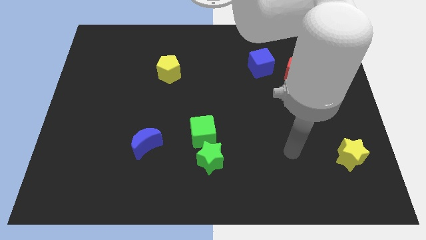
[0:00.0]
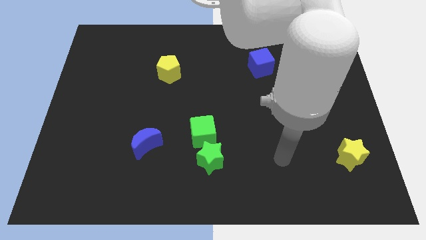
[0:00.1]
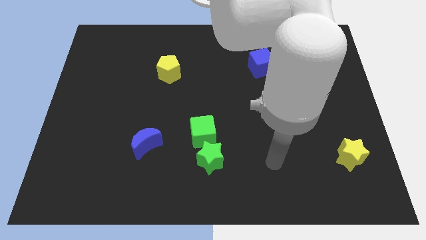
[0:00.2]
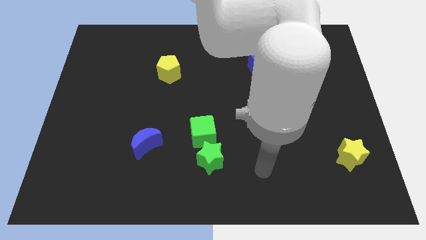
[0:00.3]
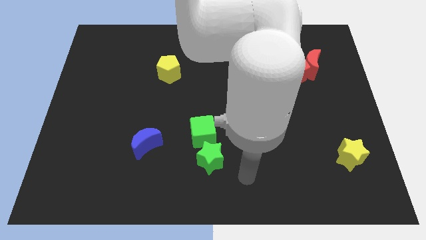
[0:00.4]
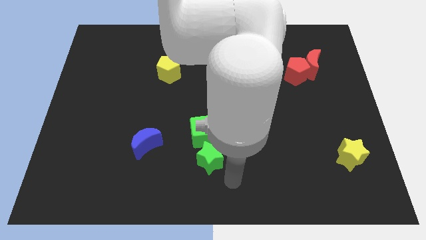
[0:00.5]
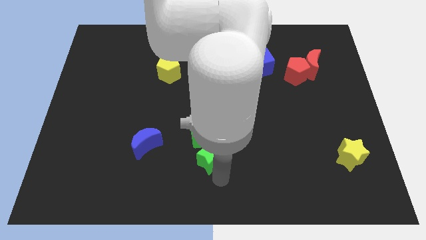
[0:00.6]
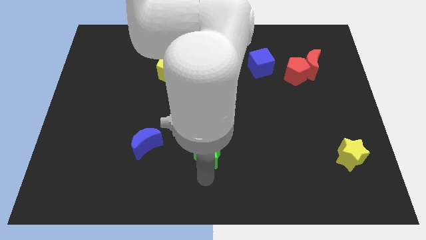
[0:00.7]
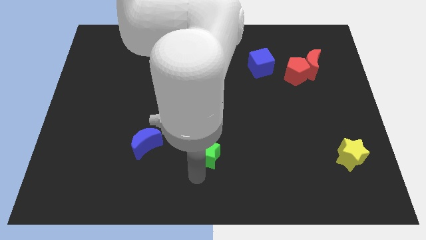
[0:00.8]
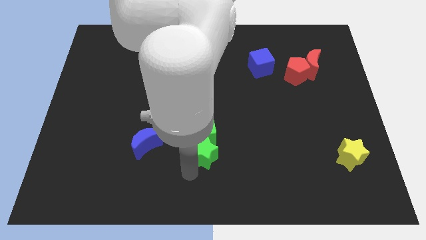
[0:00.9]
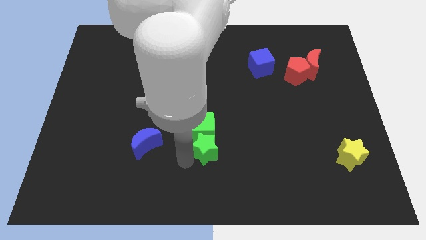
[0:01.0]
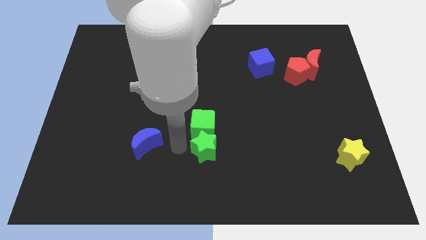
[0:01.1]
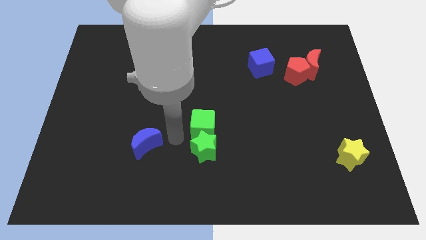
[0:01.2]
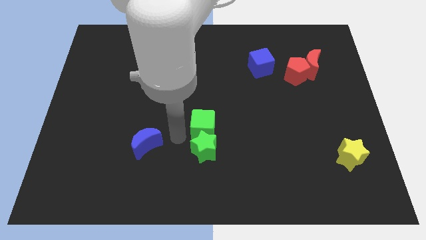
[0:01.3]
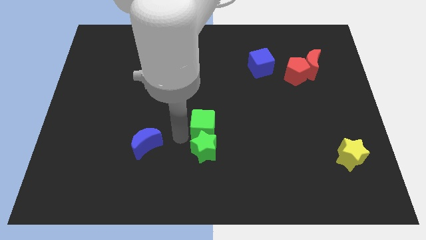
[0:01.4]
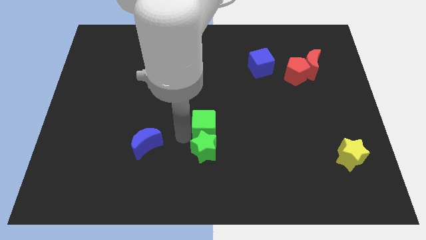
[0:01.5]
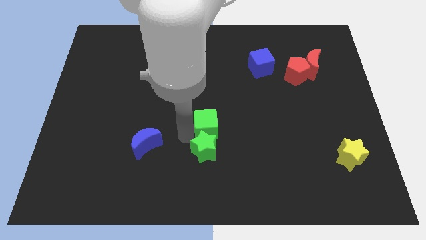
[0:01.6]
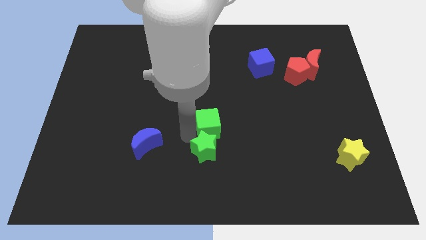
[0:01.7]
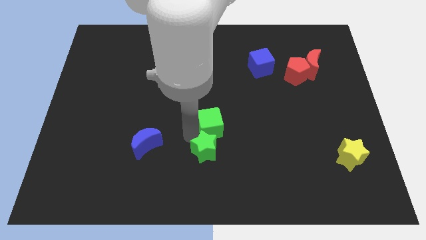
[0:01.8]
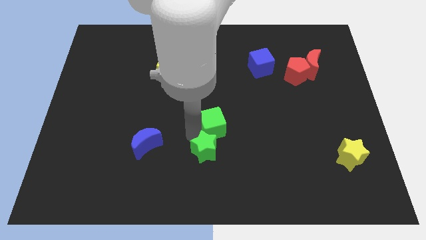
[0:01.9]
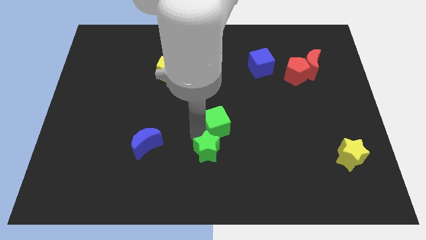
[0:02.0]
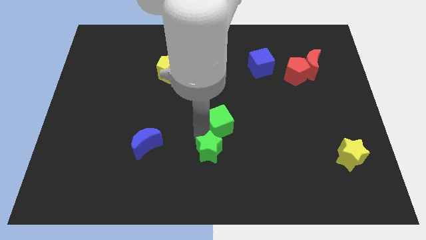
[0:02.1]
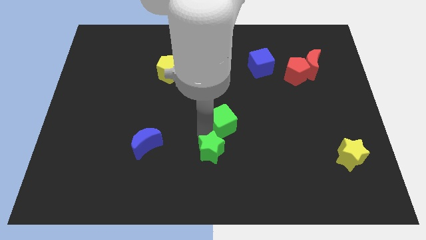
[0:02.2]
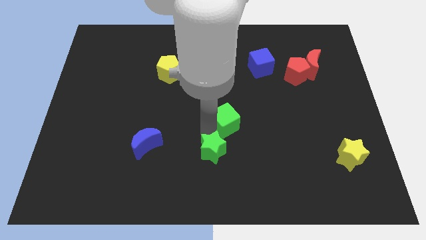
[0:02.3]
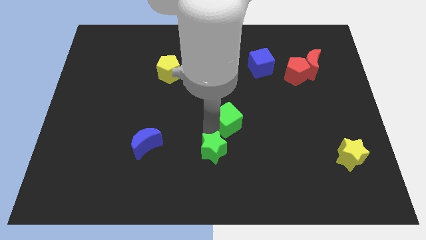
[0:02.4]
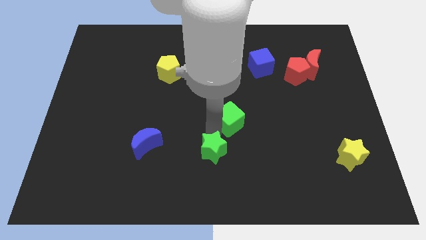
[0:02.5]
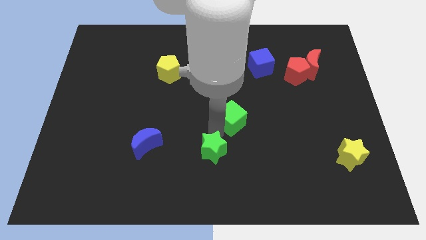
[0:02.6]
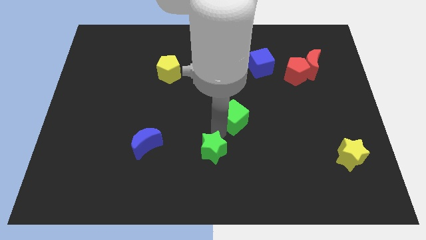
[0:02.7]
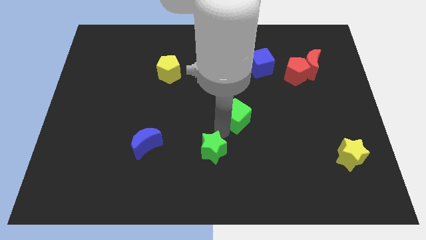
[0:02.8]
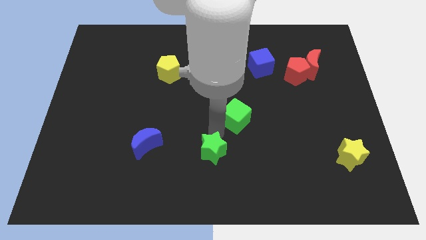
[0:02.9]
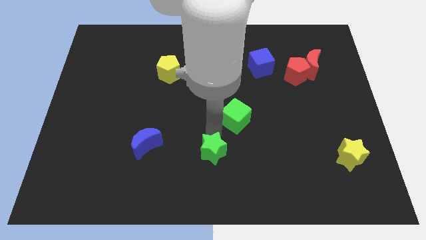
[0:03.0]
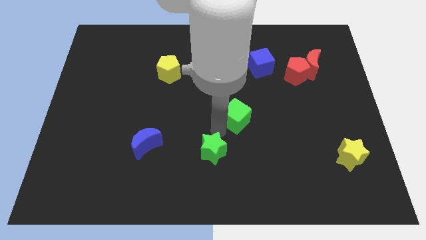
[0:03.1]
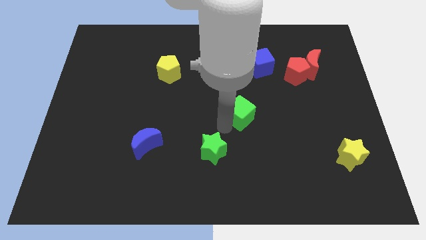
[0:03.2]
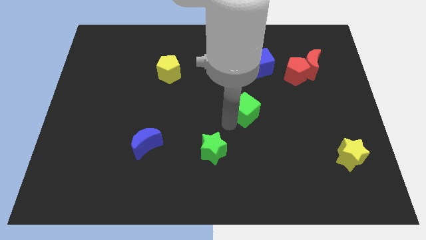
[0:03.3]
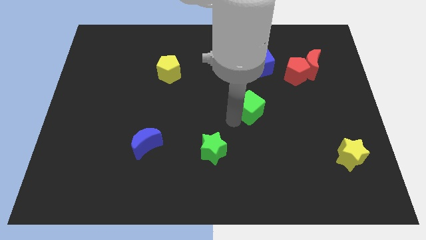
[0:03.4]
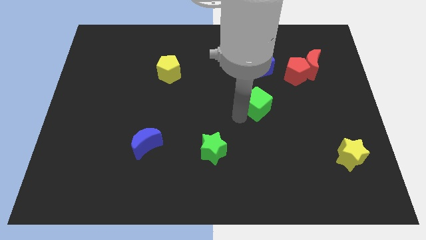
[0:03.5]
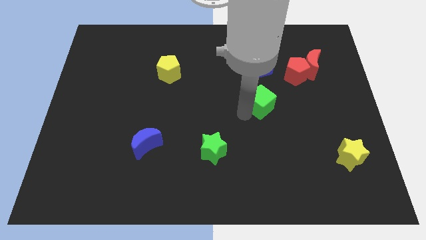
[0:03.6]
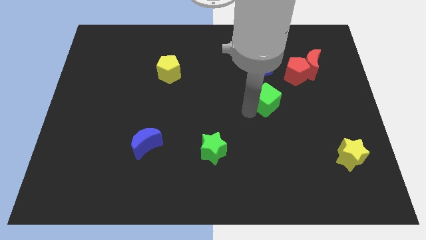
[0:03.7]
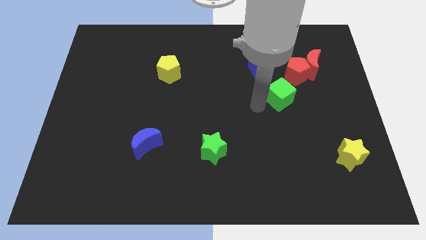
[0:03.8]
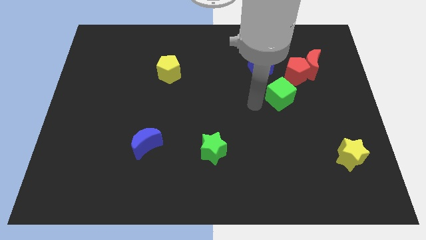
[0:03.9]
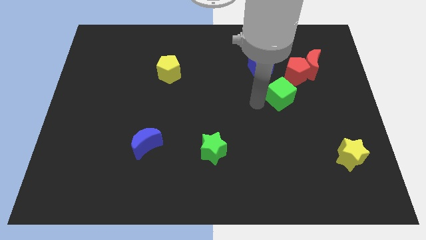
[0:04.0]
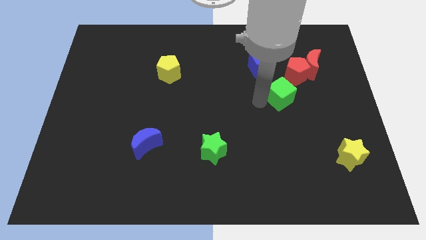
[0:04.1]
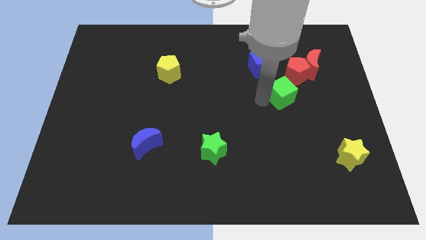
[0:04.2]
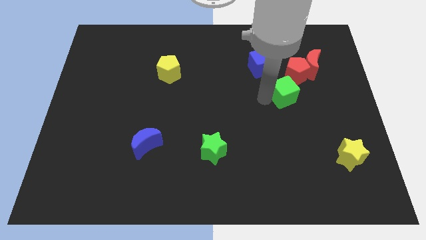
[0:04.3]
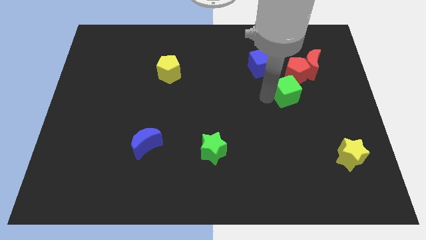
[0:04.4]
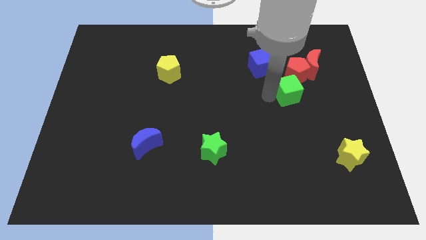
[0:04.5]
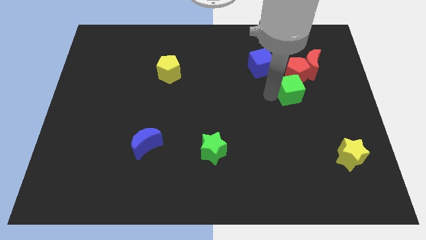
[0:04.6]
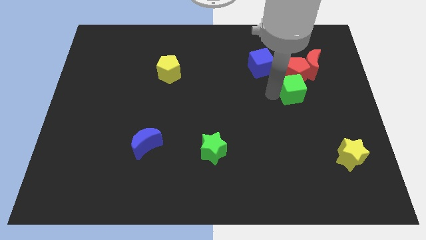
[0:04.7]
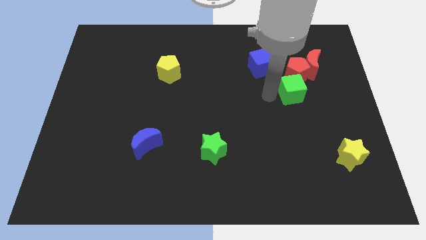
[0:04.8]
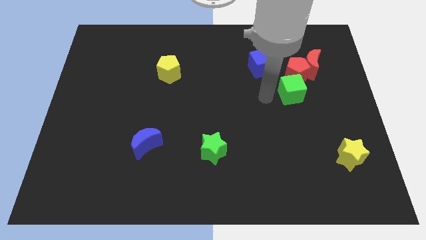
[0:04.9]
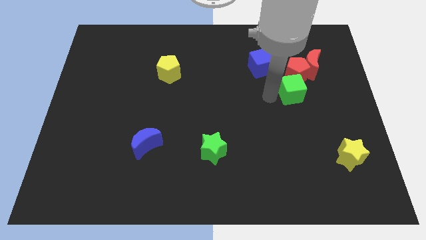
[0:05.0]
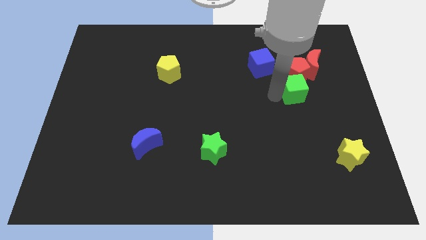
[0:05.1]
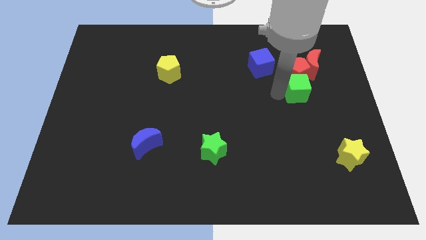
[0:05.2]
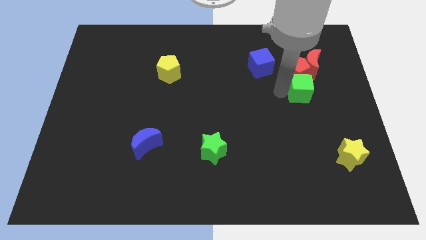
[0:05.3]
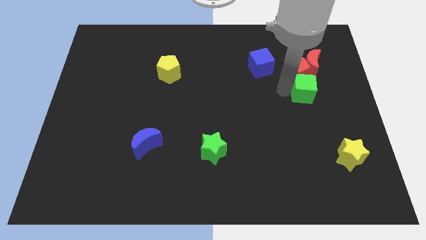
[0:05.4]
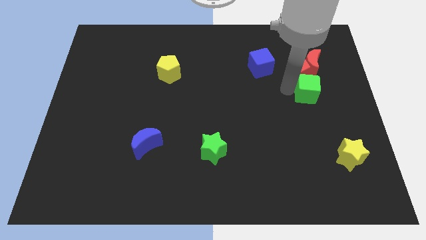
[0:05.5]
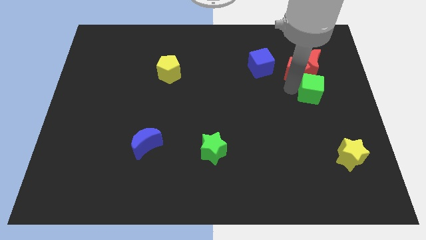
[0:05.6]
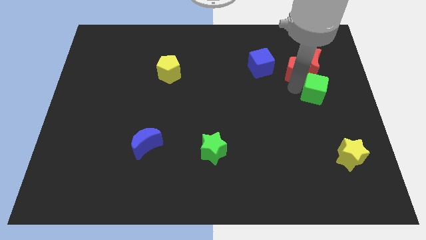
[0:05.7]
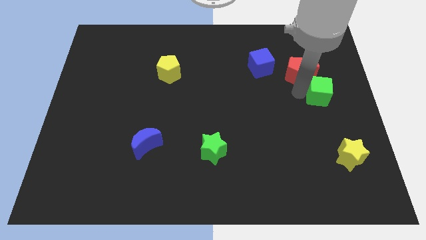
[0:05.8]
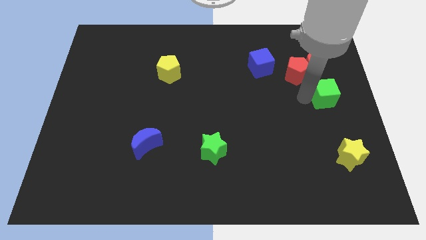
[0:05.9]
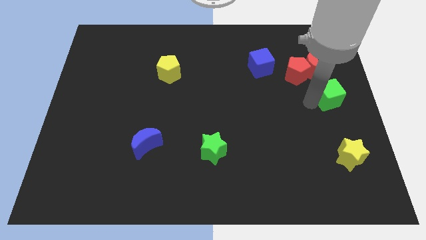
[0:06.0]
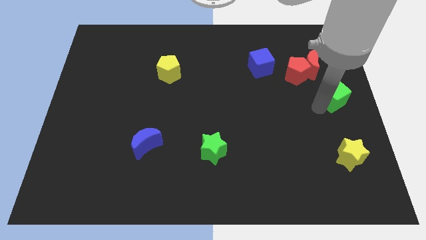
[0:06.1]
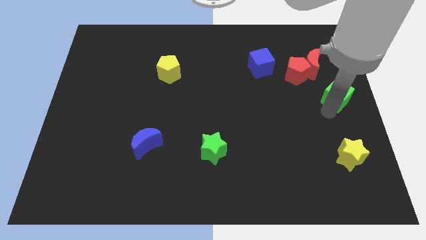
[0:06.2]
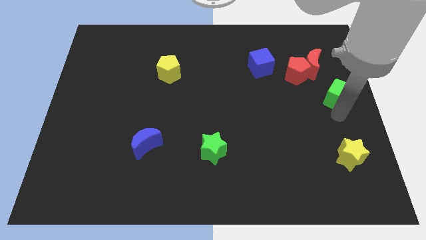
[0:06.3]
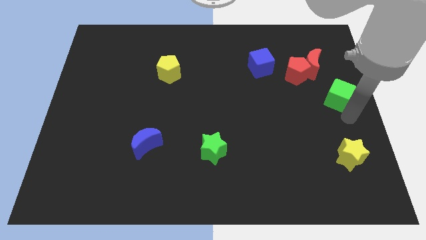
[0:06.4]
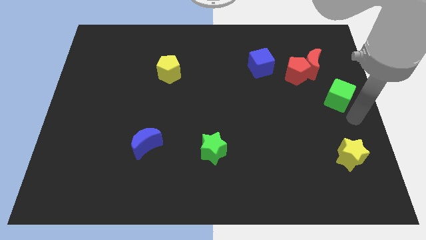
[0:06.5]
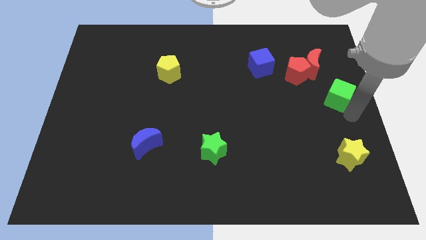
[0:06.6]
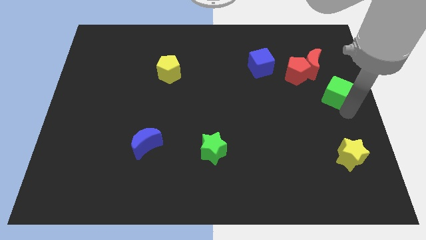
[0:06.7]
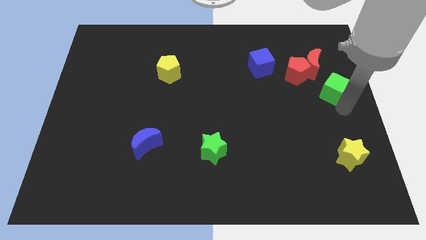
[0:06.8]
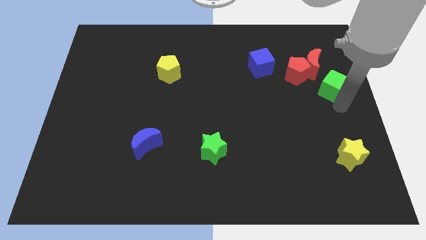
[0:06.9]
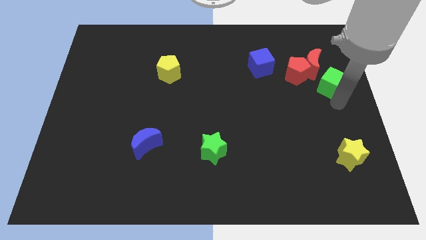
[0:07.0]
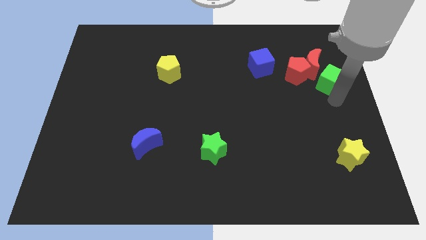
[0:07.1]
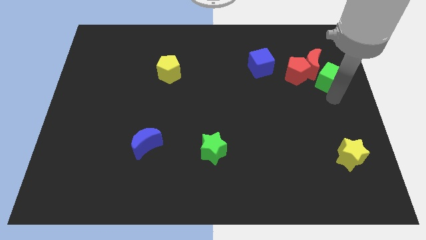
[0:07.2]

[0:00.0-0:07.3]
move the green cube close to the red moon
